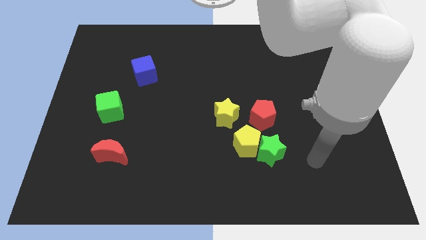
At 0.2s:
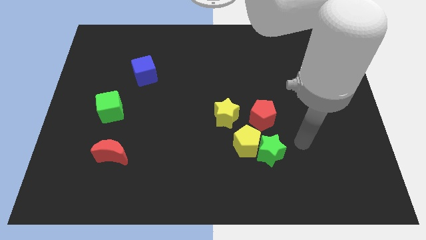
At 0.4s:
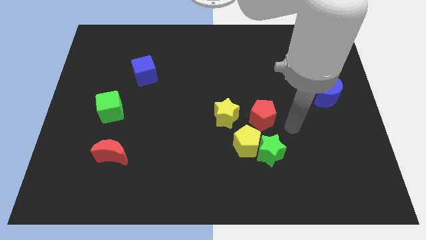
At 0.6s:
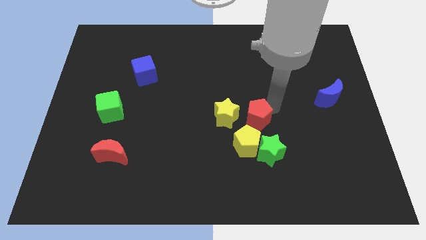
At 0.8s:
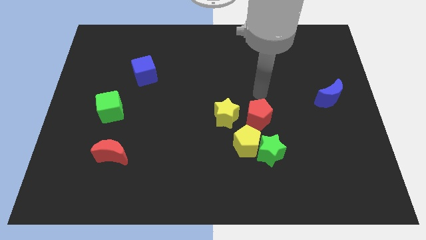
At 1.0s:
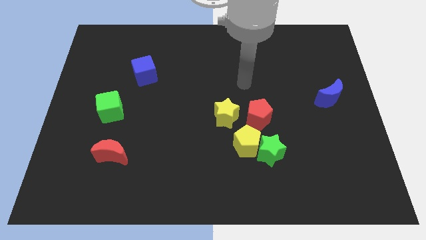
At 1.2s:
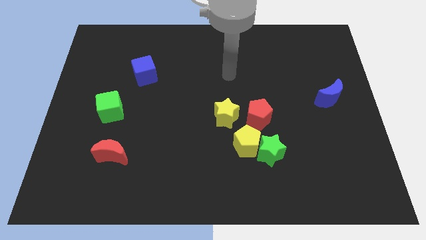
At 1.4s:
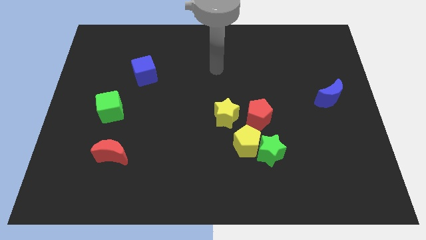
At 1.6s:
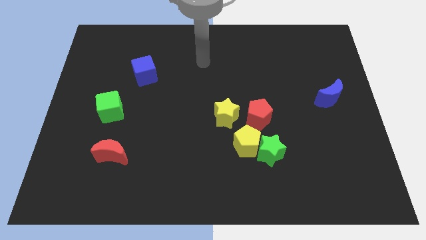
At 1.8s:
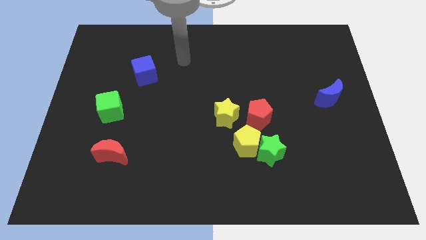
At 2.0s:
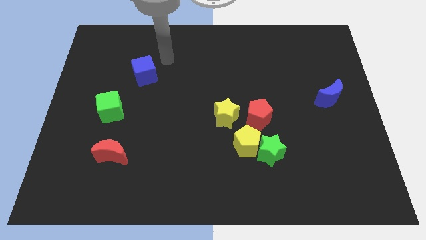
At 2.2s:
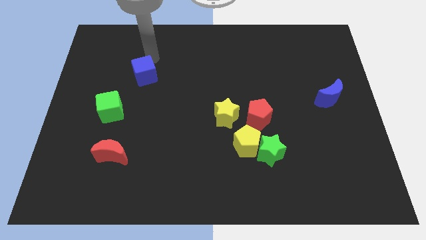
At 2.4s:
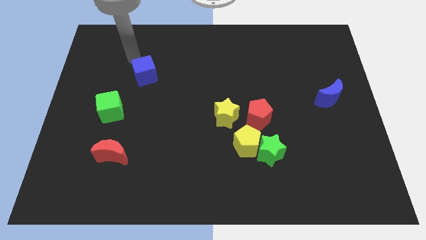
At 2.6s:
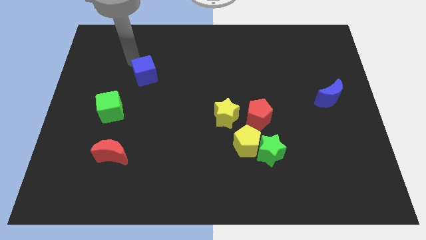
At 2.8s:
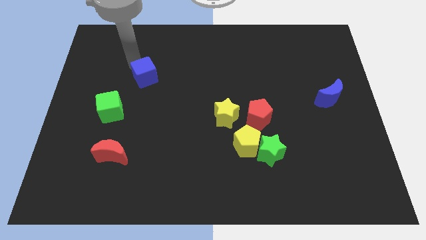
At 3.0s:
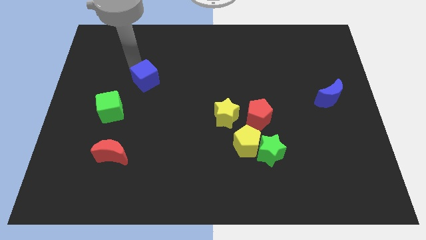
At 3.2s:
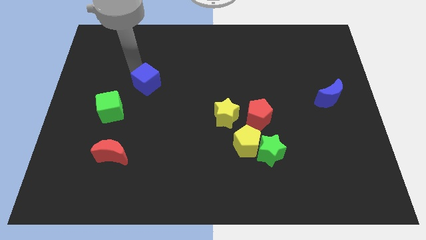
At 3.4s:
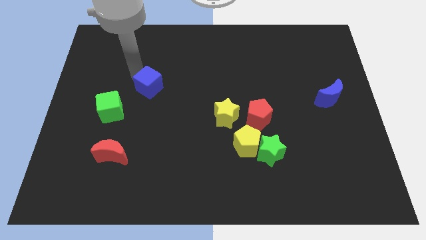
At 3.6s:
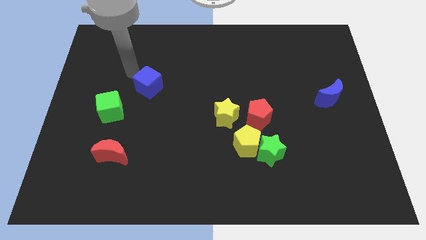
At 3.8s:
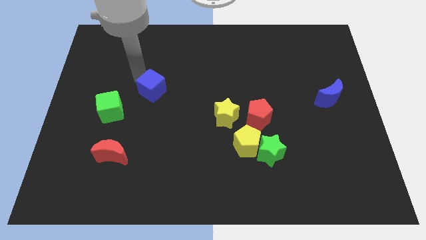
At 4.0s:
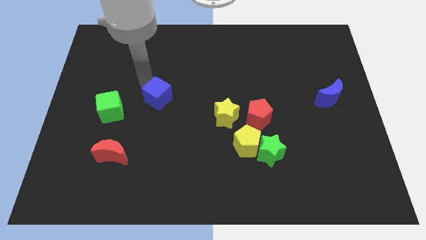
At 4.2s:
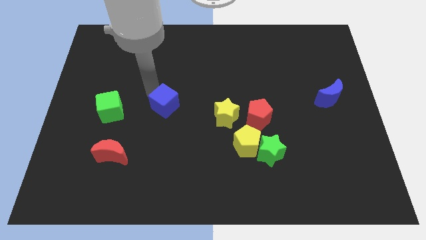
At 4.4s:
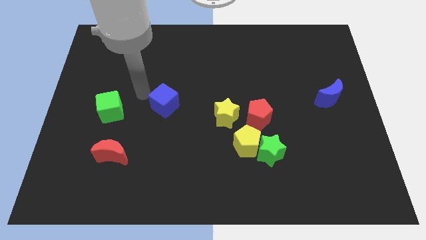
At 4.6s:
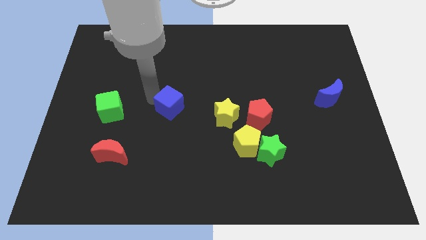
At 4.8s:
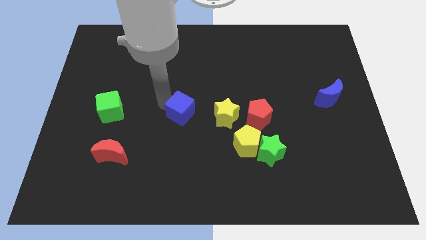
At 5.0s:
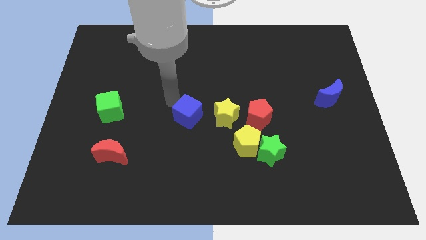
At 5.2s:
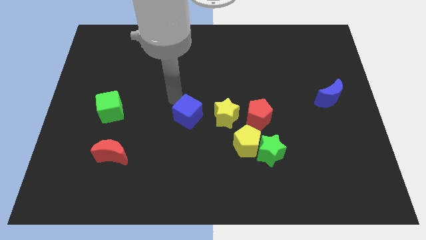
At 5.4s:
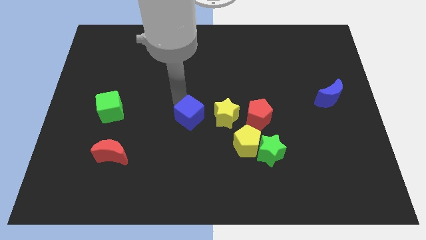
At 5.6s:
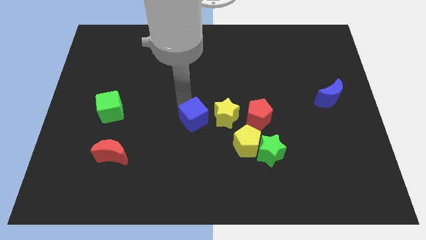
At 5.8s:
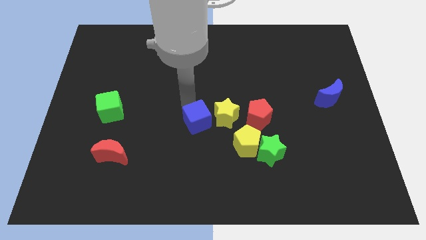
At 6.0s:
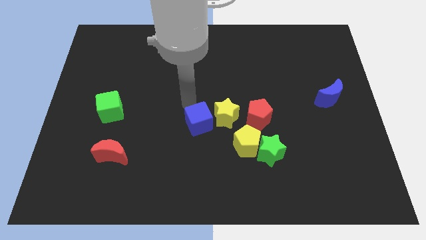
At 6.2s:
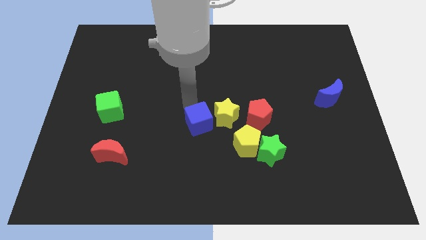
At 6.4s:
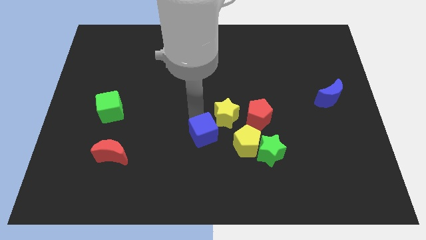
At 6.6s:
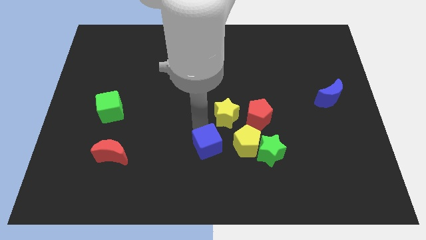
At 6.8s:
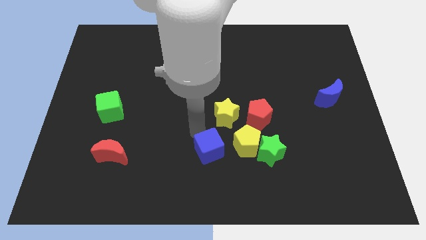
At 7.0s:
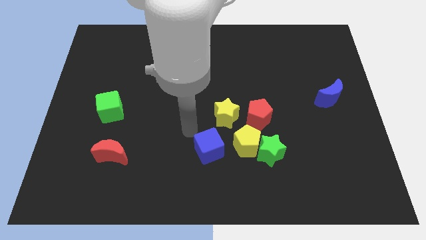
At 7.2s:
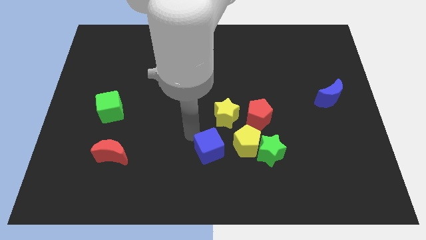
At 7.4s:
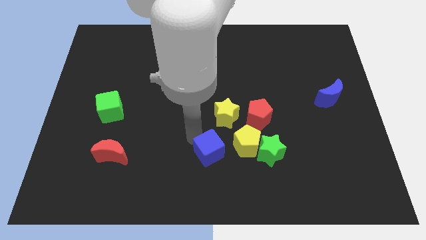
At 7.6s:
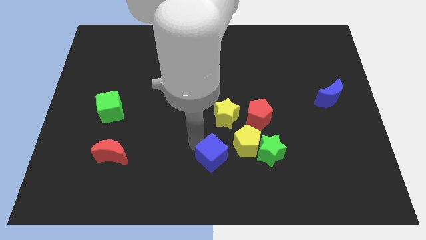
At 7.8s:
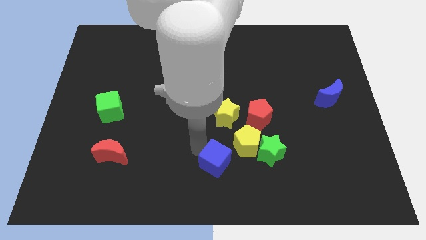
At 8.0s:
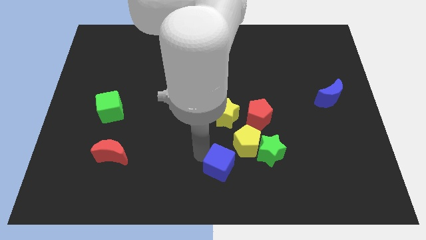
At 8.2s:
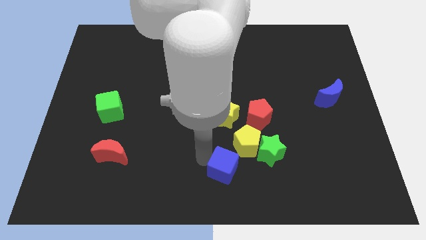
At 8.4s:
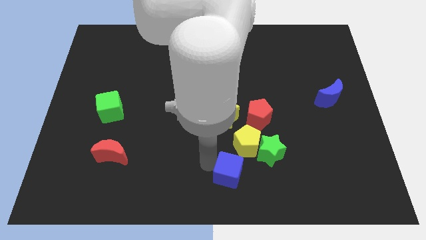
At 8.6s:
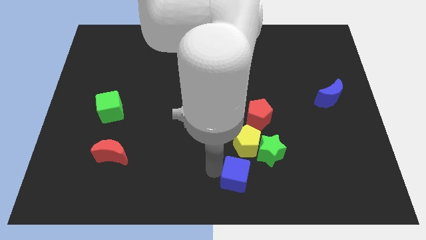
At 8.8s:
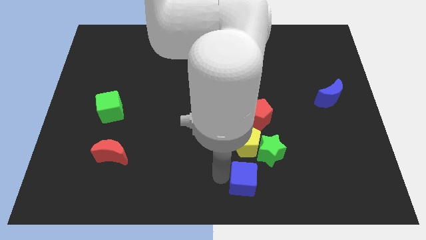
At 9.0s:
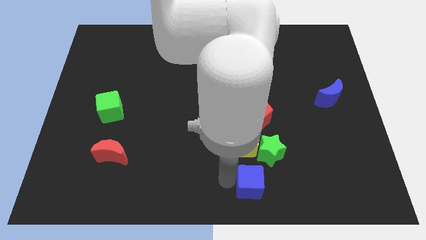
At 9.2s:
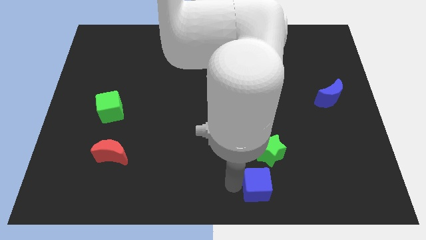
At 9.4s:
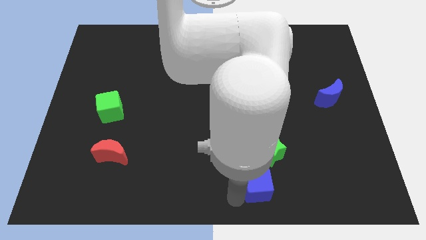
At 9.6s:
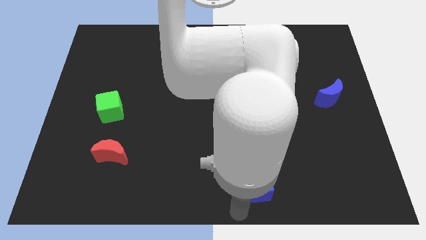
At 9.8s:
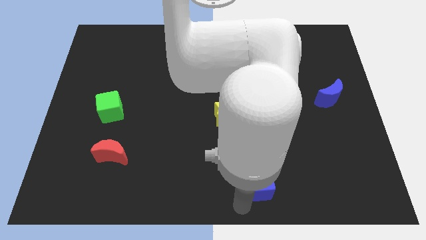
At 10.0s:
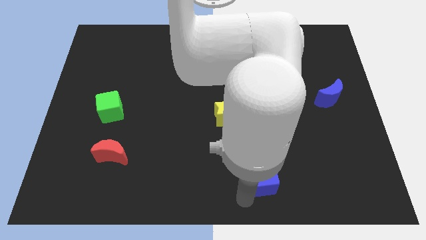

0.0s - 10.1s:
slide the blue cube diagonally down and to the right of the yellow pentagon

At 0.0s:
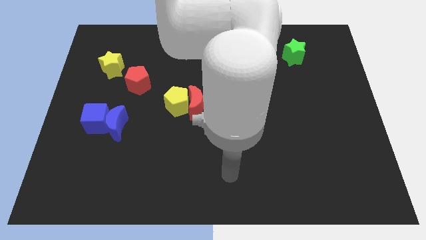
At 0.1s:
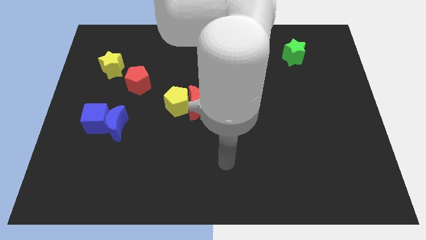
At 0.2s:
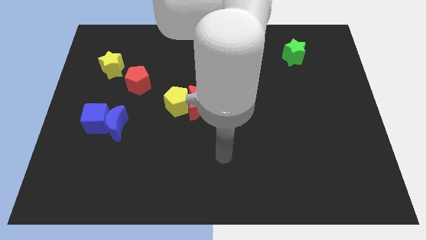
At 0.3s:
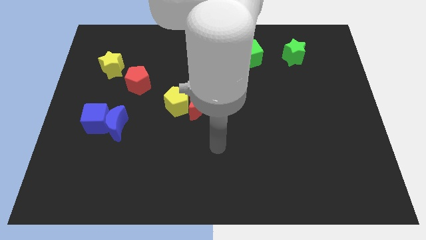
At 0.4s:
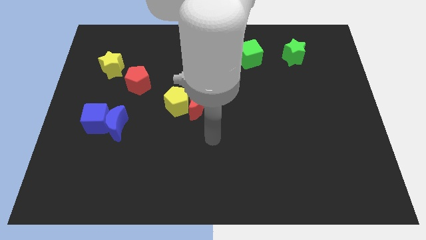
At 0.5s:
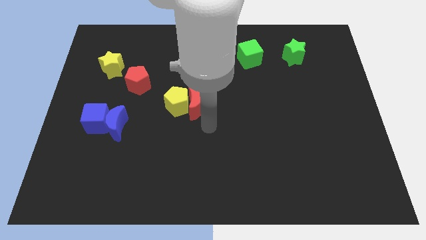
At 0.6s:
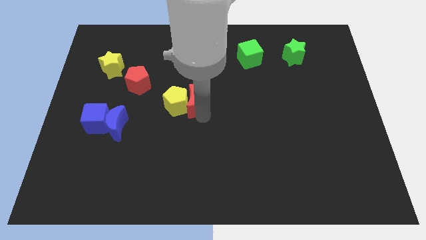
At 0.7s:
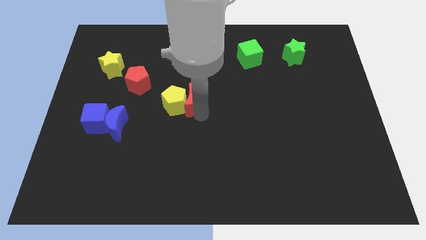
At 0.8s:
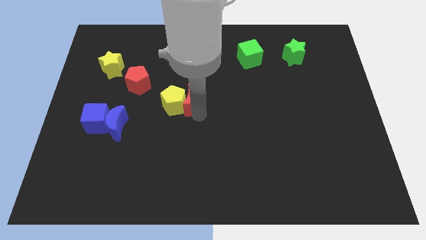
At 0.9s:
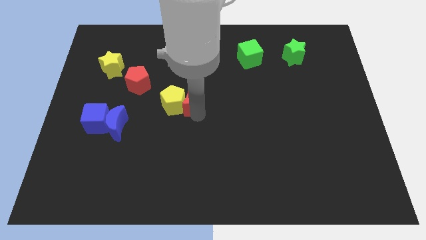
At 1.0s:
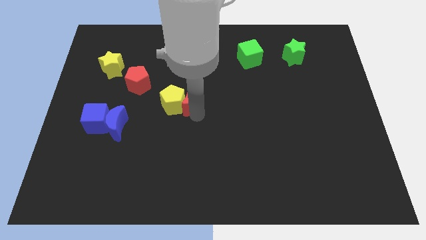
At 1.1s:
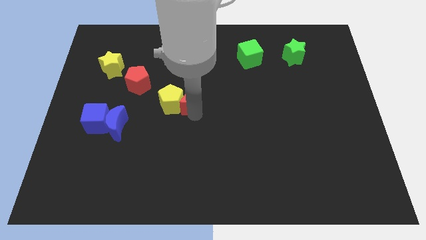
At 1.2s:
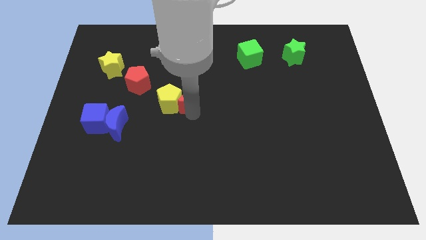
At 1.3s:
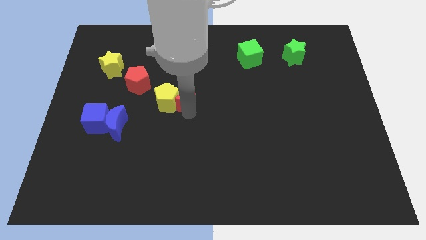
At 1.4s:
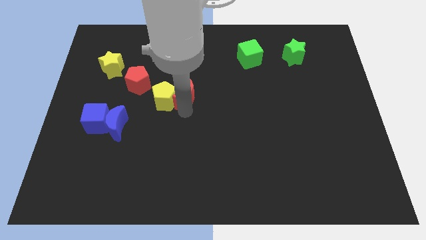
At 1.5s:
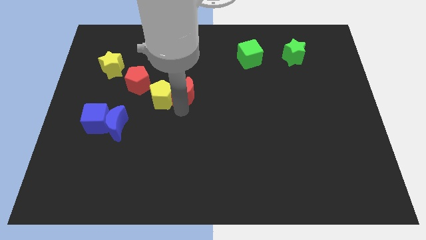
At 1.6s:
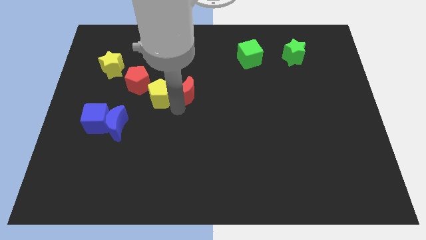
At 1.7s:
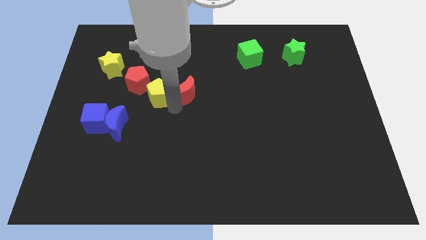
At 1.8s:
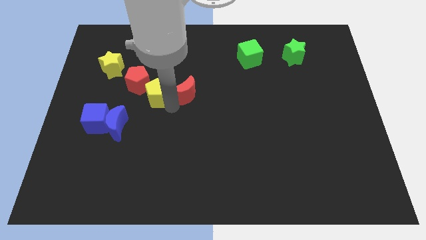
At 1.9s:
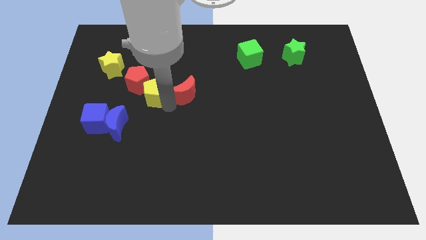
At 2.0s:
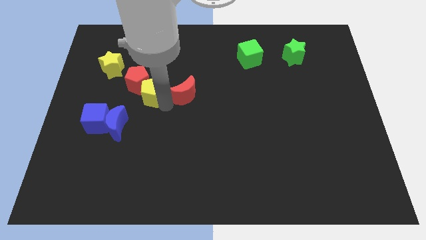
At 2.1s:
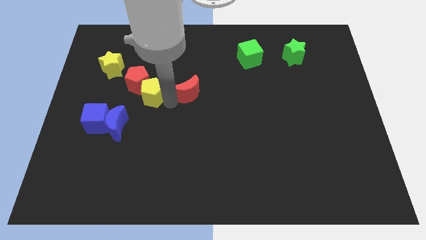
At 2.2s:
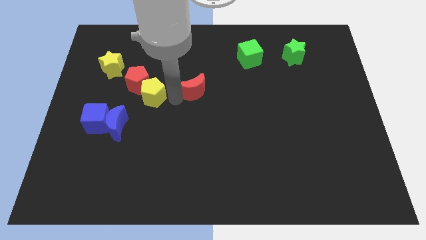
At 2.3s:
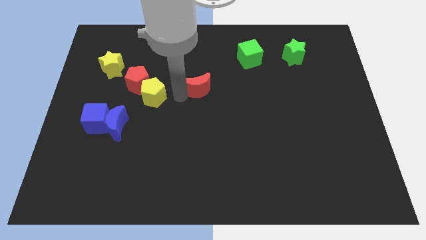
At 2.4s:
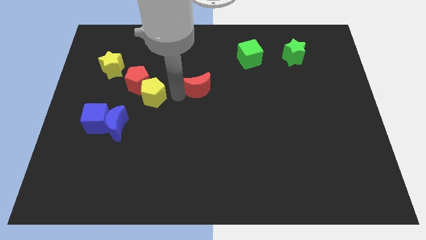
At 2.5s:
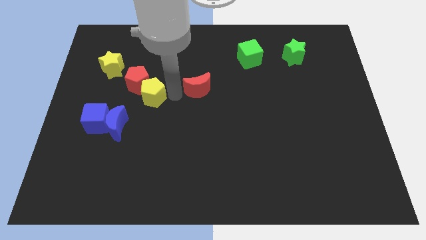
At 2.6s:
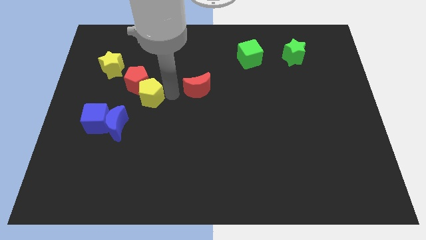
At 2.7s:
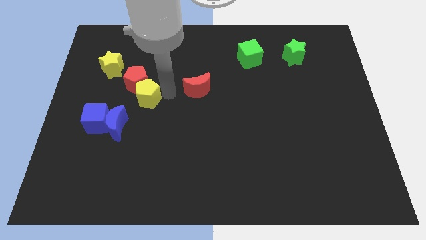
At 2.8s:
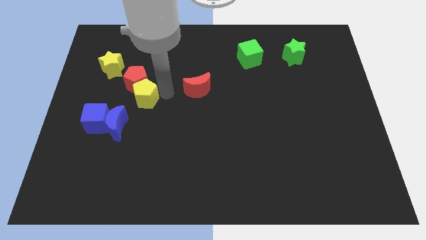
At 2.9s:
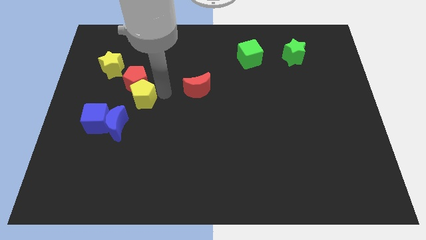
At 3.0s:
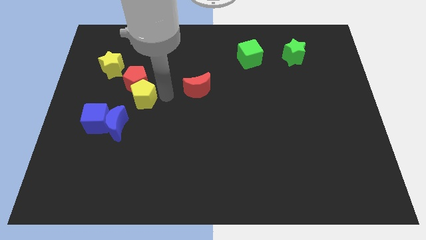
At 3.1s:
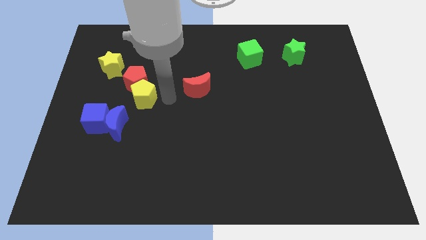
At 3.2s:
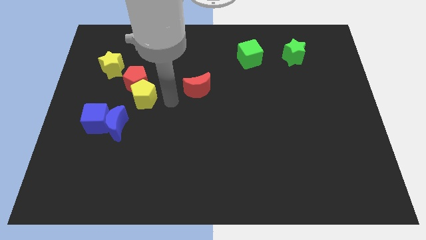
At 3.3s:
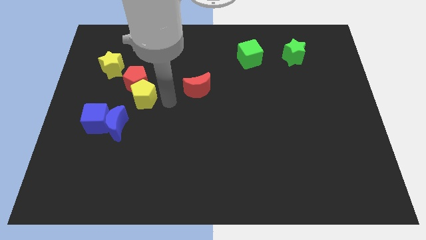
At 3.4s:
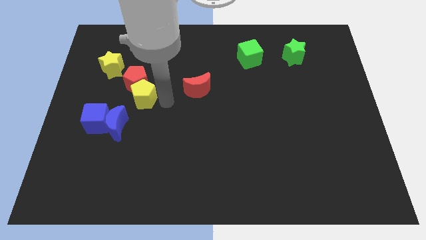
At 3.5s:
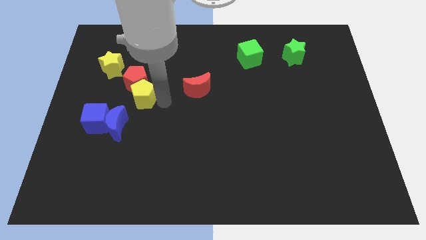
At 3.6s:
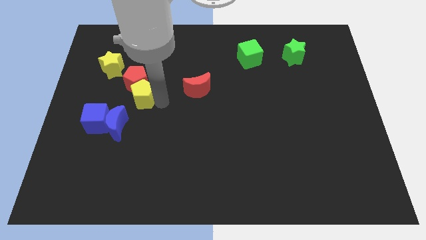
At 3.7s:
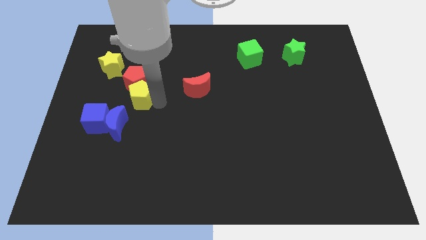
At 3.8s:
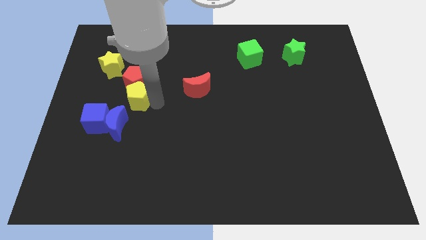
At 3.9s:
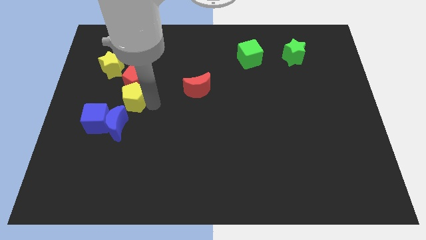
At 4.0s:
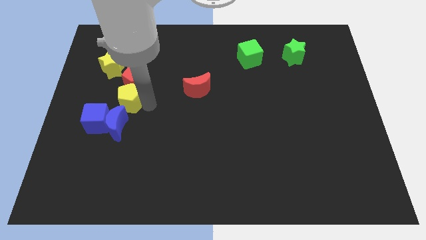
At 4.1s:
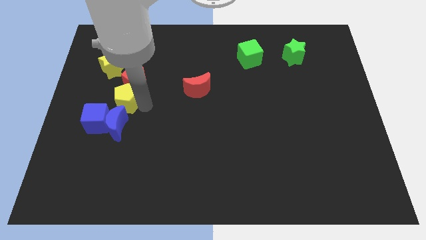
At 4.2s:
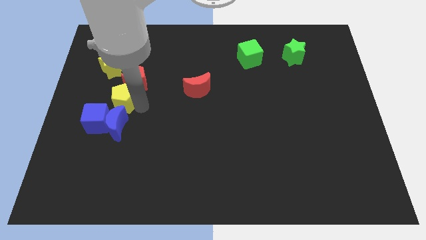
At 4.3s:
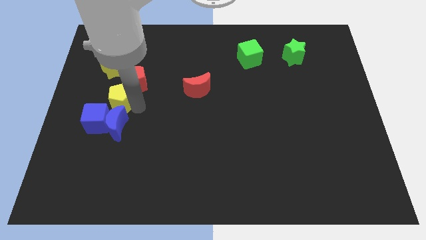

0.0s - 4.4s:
push the yellow pentagon to the top of the blue cube
